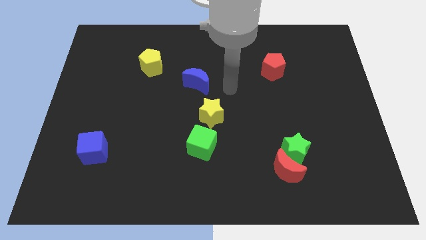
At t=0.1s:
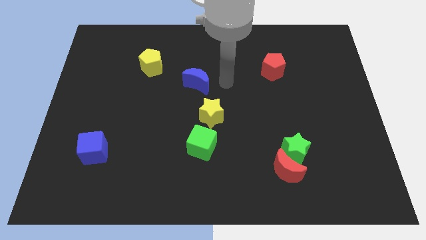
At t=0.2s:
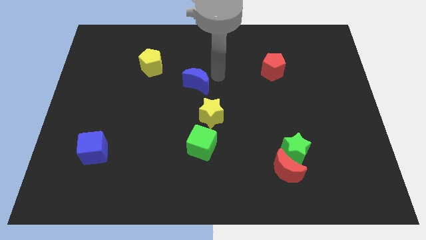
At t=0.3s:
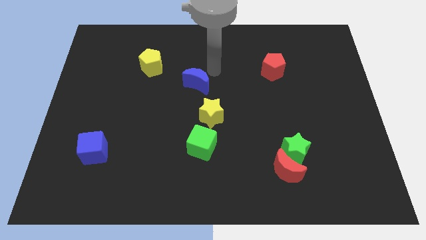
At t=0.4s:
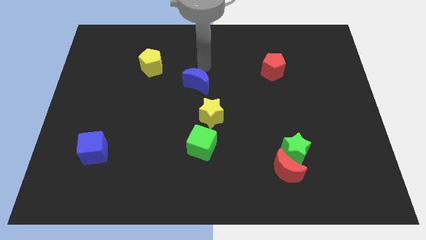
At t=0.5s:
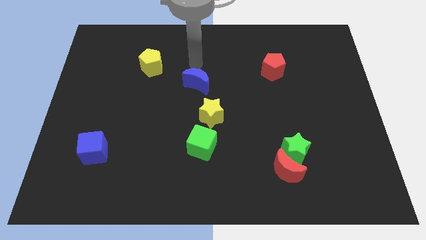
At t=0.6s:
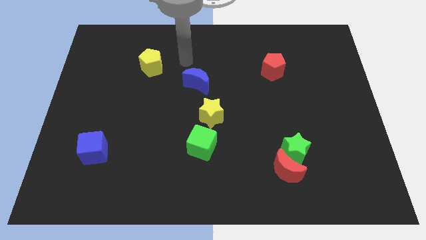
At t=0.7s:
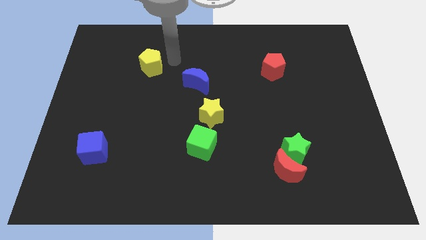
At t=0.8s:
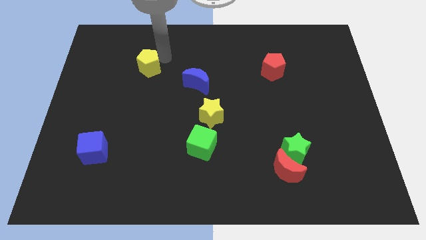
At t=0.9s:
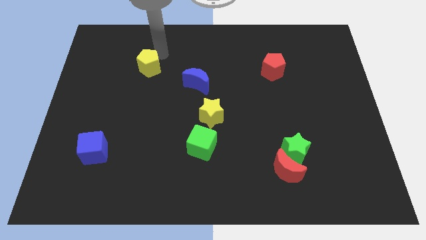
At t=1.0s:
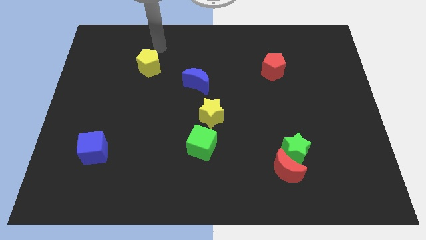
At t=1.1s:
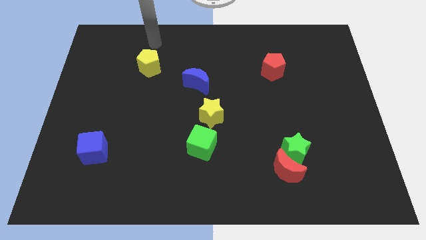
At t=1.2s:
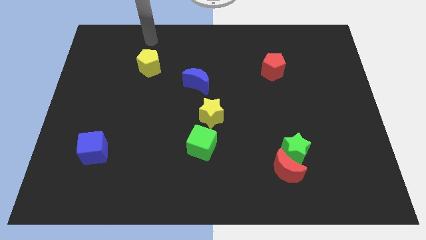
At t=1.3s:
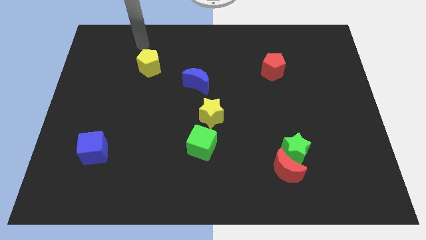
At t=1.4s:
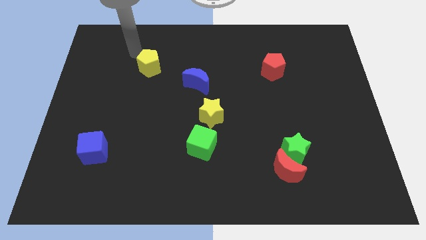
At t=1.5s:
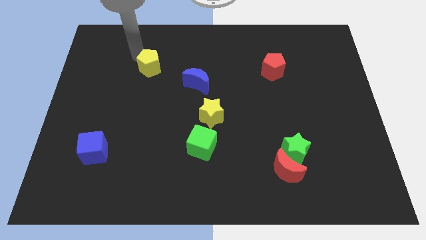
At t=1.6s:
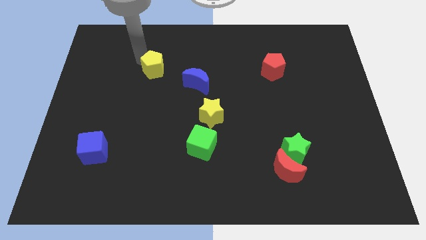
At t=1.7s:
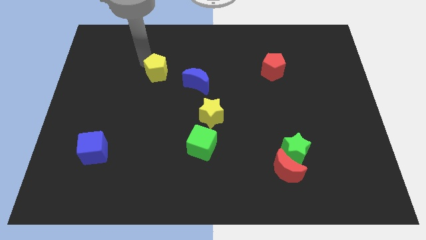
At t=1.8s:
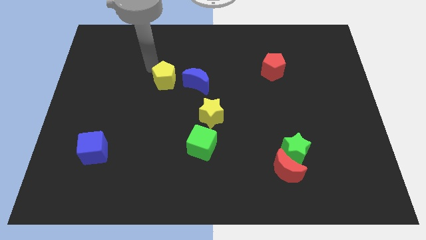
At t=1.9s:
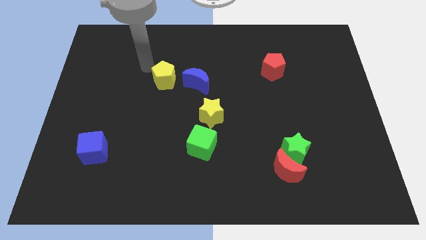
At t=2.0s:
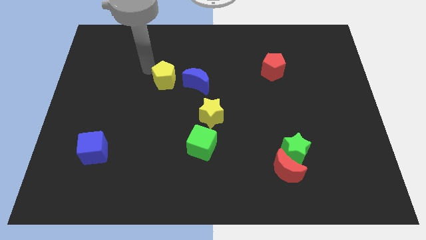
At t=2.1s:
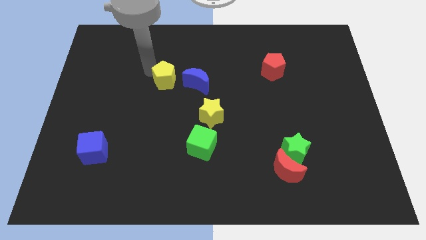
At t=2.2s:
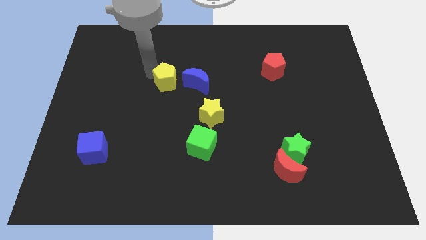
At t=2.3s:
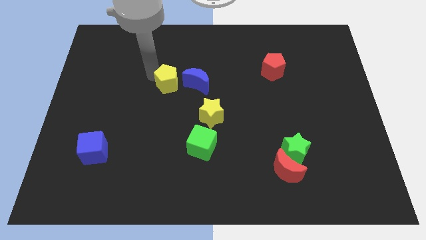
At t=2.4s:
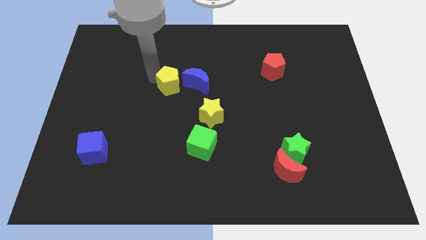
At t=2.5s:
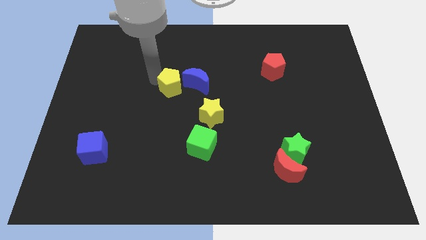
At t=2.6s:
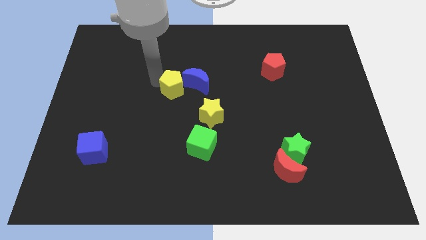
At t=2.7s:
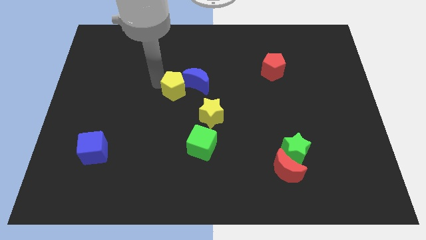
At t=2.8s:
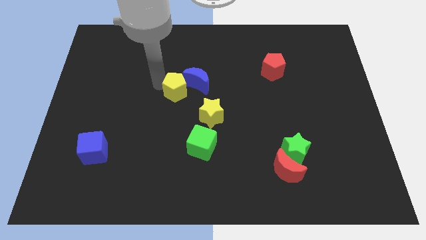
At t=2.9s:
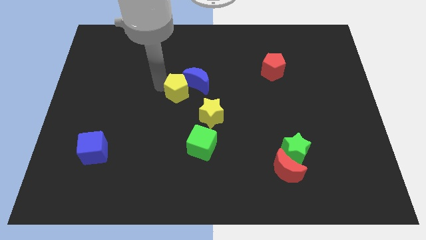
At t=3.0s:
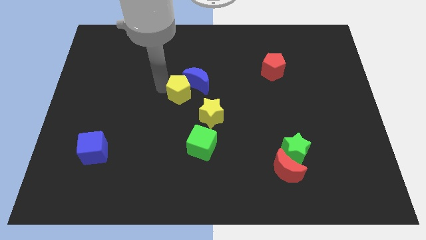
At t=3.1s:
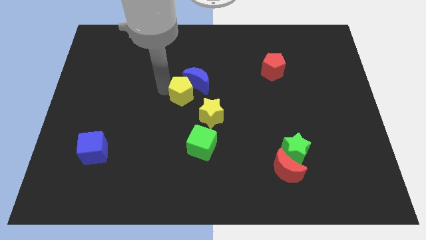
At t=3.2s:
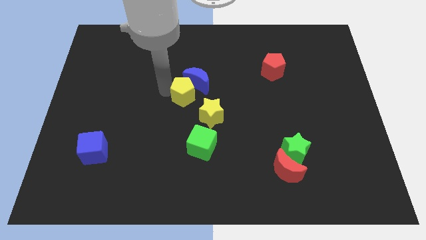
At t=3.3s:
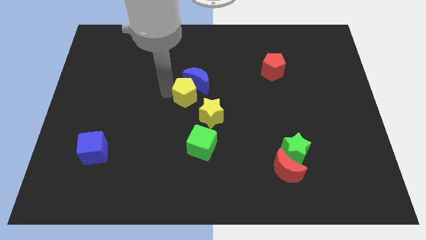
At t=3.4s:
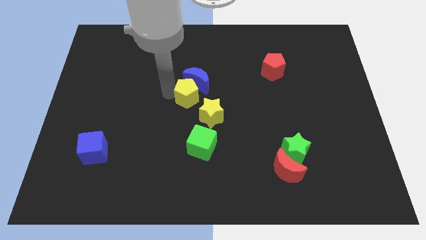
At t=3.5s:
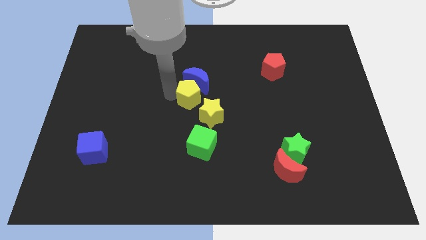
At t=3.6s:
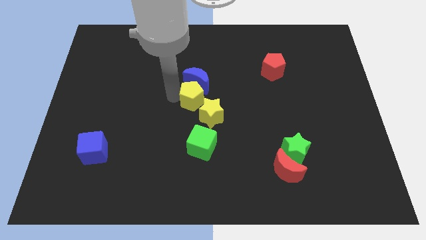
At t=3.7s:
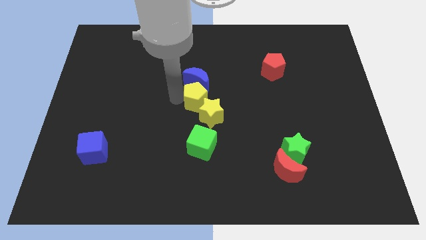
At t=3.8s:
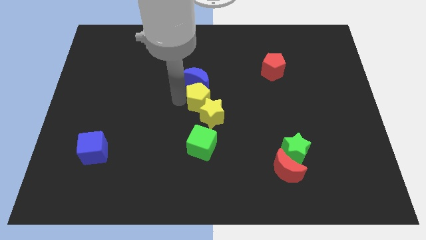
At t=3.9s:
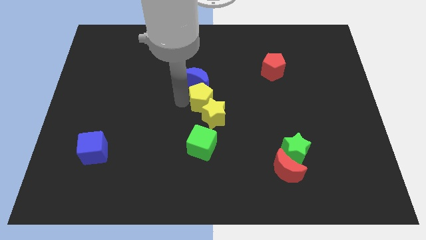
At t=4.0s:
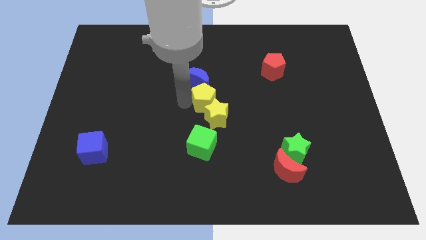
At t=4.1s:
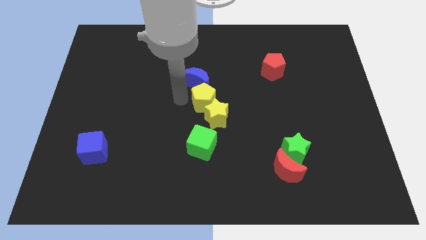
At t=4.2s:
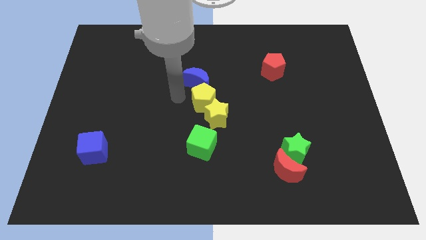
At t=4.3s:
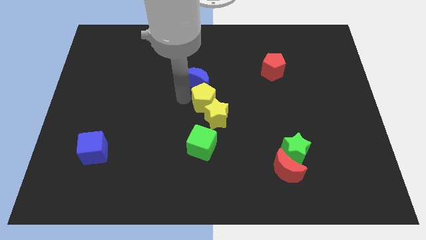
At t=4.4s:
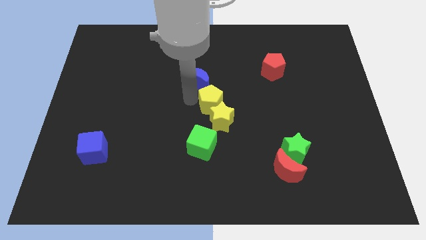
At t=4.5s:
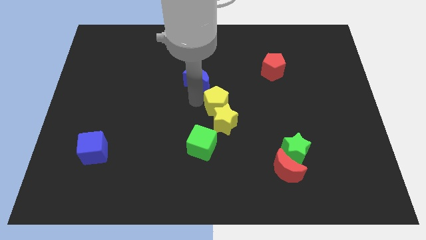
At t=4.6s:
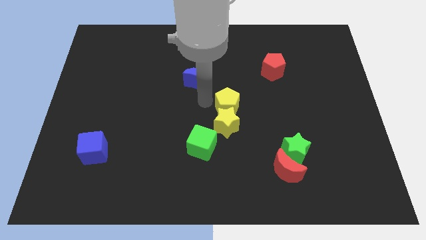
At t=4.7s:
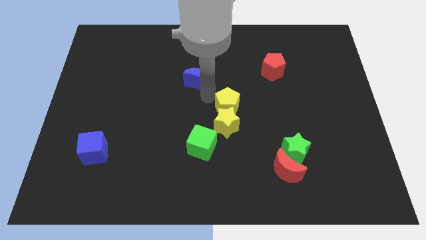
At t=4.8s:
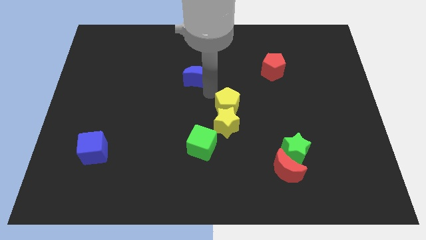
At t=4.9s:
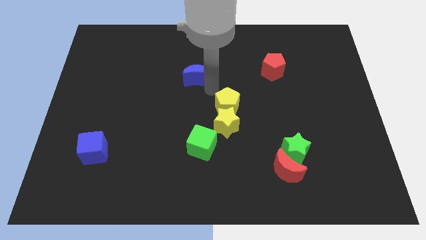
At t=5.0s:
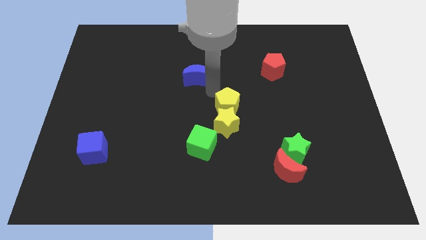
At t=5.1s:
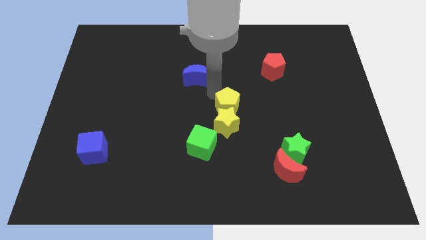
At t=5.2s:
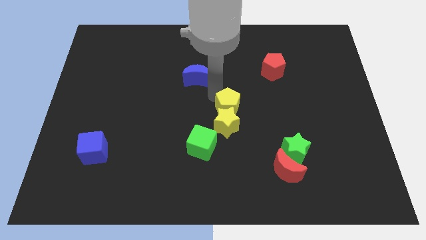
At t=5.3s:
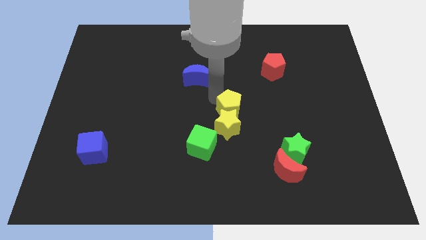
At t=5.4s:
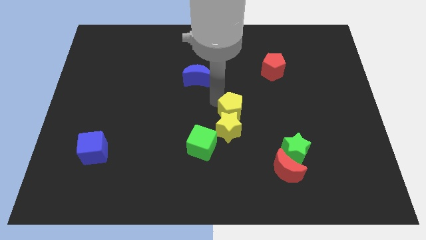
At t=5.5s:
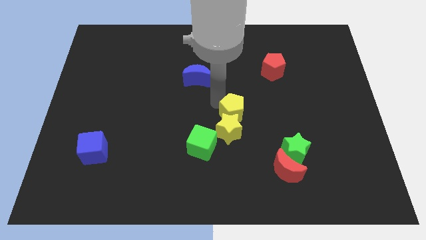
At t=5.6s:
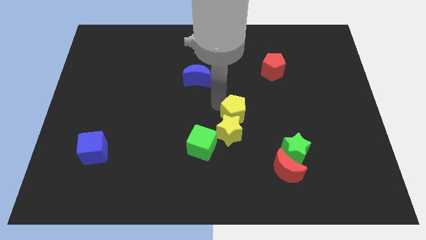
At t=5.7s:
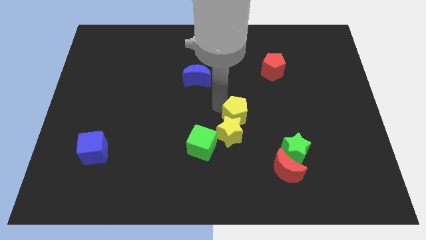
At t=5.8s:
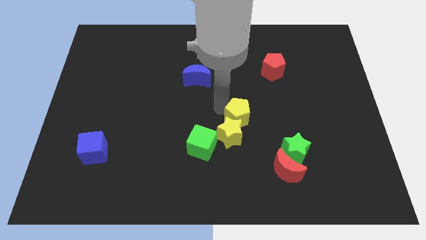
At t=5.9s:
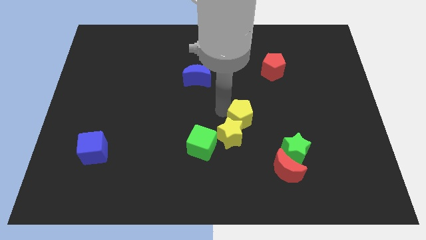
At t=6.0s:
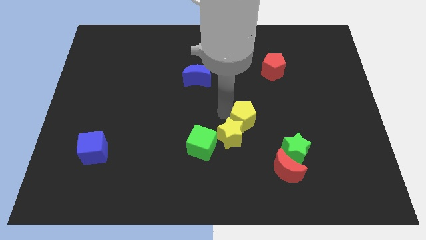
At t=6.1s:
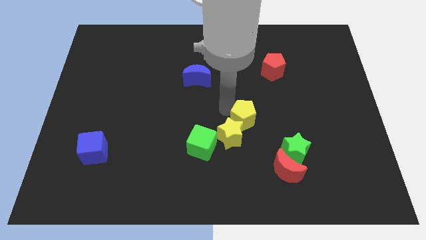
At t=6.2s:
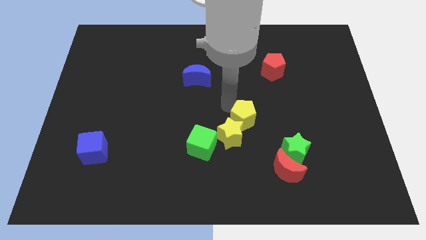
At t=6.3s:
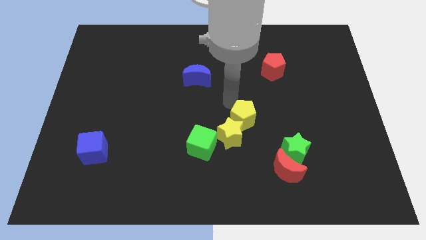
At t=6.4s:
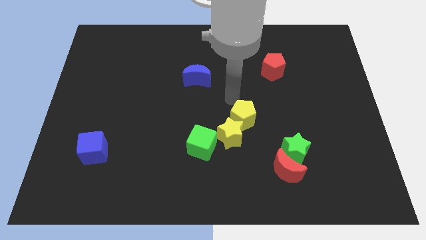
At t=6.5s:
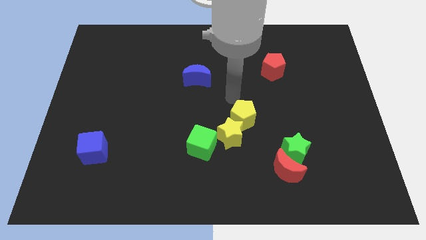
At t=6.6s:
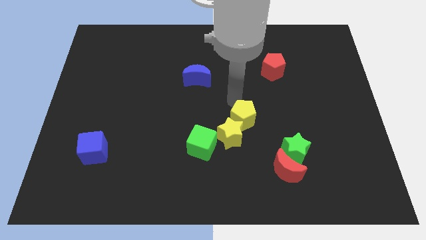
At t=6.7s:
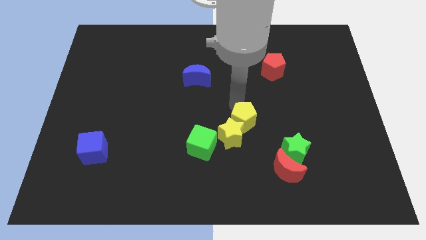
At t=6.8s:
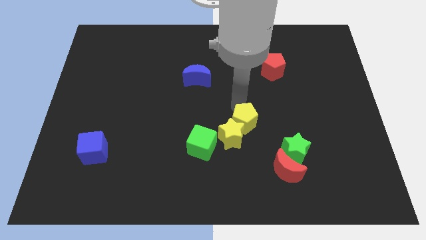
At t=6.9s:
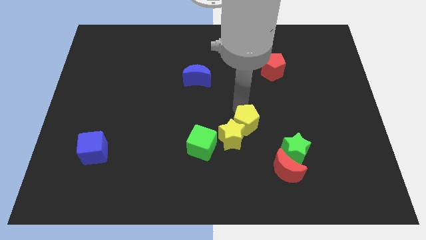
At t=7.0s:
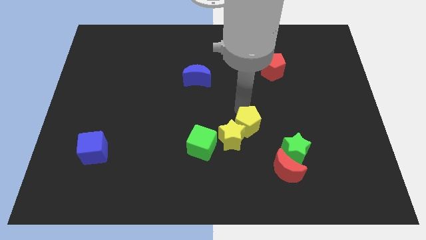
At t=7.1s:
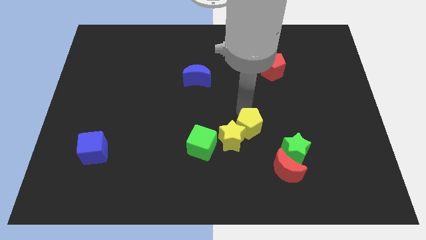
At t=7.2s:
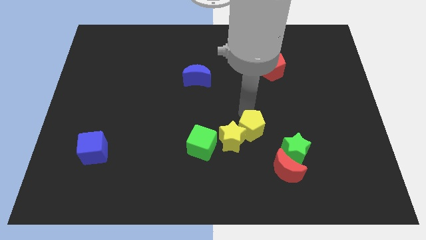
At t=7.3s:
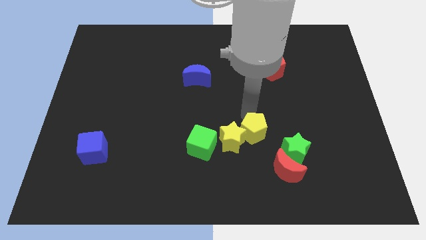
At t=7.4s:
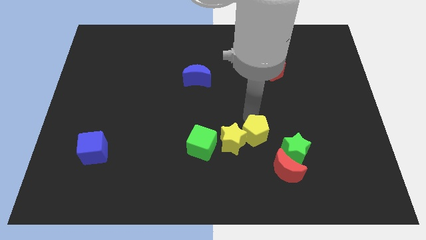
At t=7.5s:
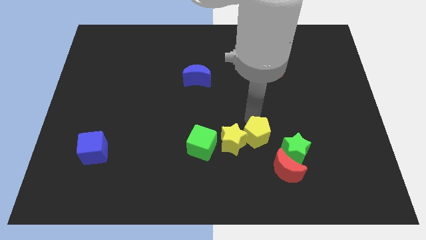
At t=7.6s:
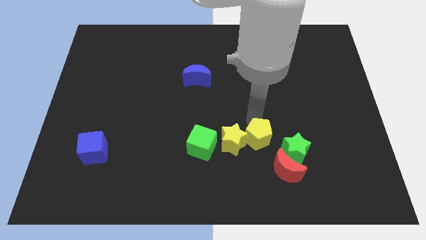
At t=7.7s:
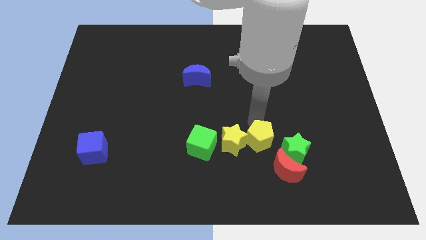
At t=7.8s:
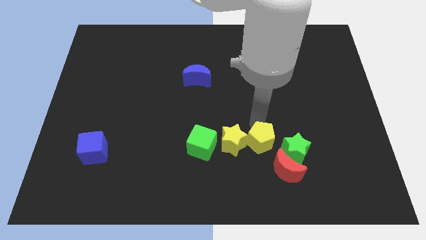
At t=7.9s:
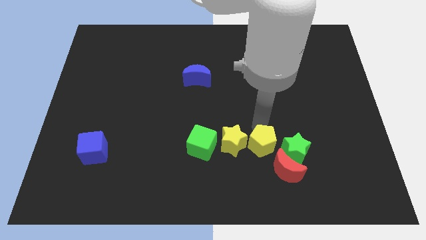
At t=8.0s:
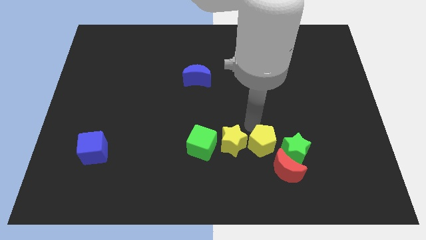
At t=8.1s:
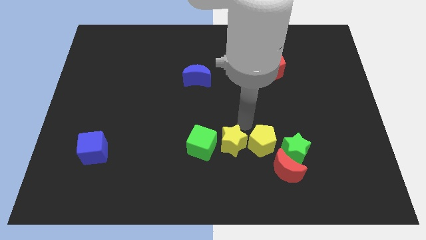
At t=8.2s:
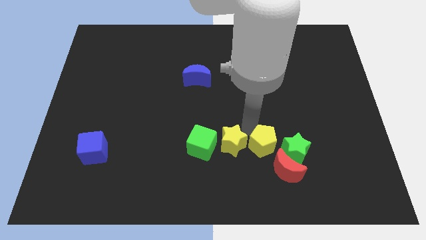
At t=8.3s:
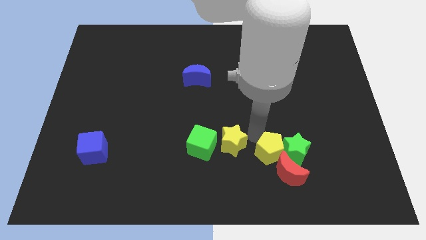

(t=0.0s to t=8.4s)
slide the yellow pentagon towards the red moon
